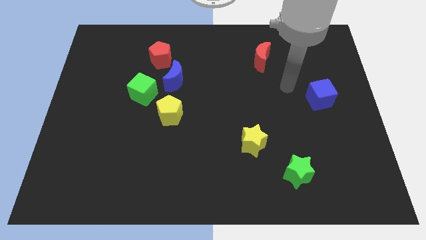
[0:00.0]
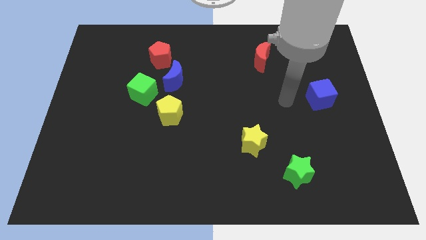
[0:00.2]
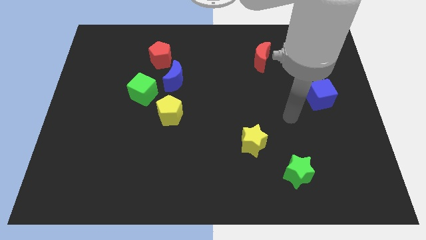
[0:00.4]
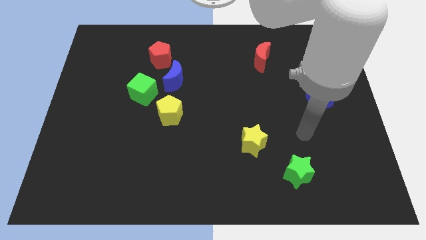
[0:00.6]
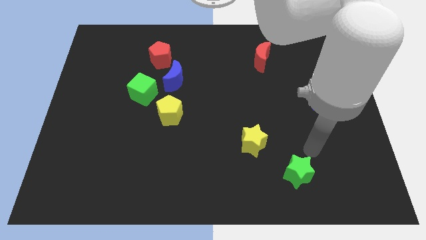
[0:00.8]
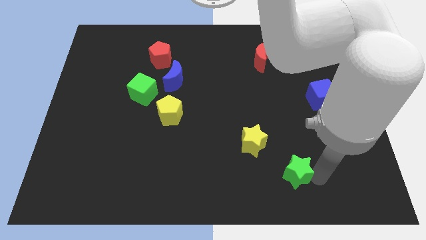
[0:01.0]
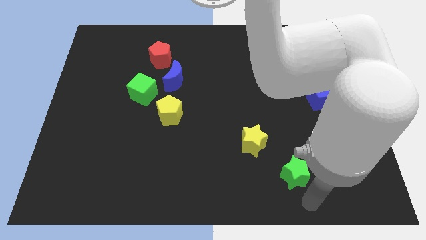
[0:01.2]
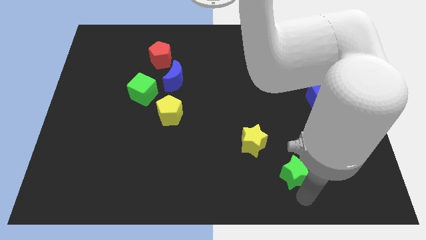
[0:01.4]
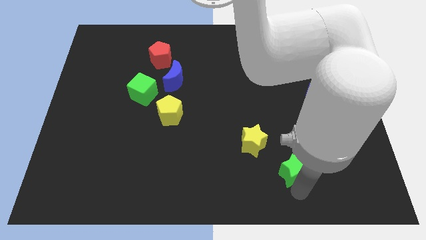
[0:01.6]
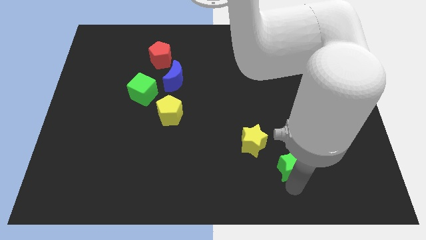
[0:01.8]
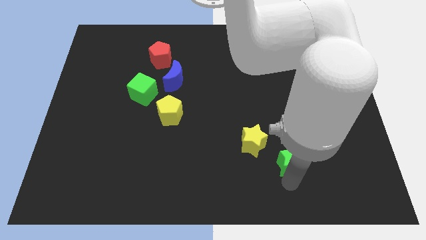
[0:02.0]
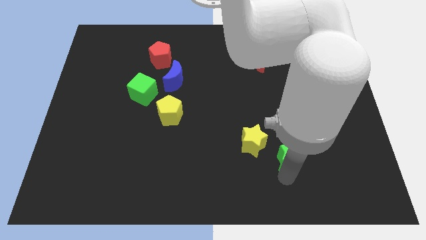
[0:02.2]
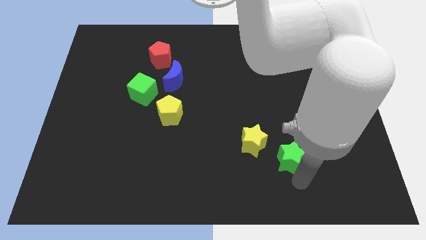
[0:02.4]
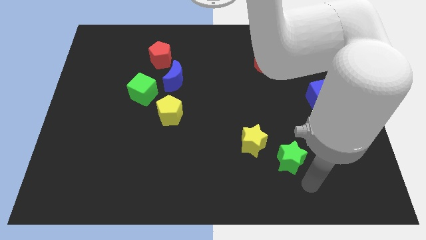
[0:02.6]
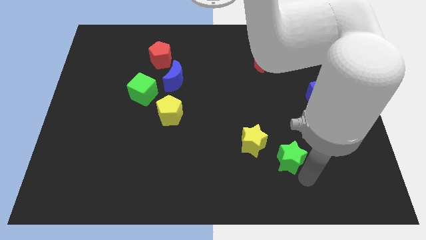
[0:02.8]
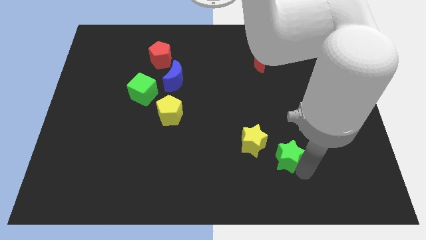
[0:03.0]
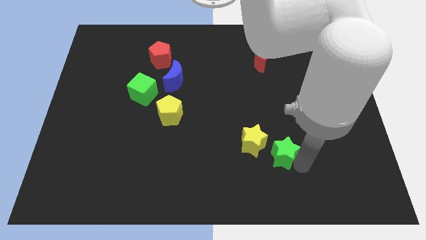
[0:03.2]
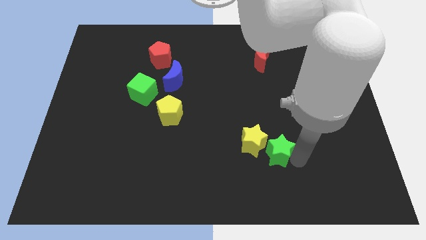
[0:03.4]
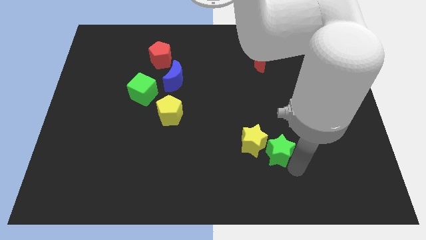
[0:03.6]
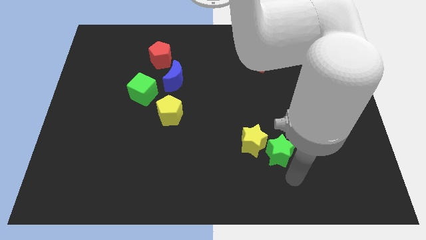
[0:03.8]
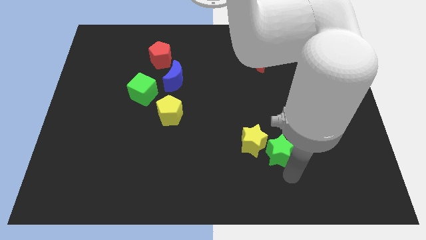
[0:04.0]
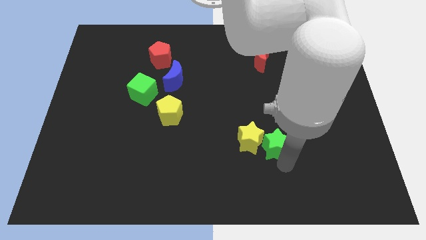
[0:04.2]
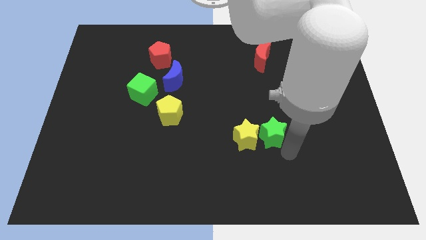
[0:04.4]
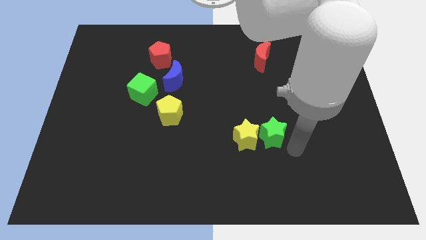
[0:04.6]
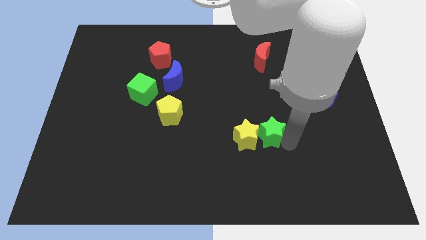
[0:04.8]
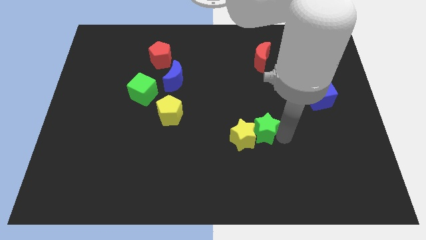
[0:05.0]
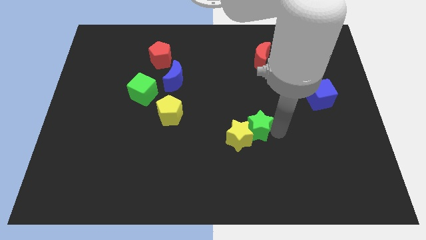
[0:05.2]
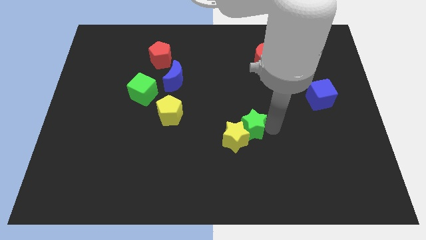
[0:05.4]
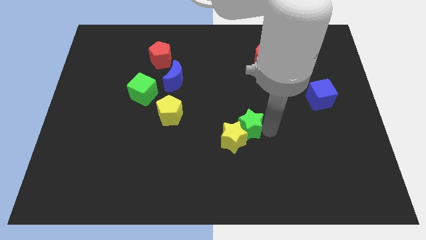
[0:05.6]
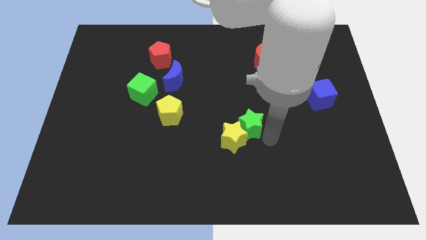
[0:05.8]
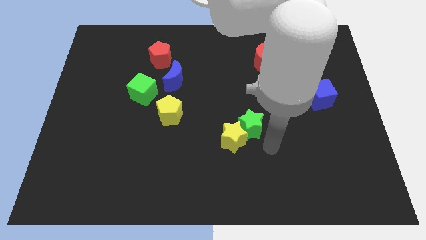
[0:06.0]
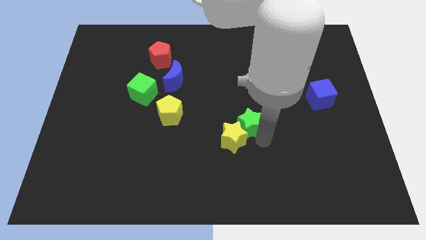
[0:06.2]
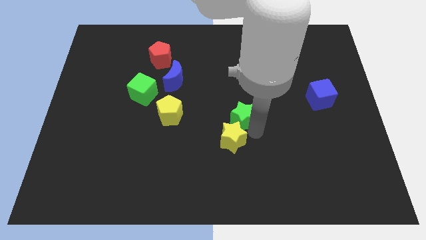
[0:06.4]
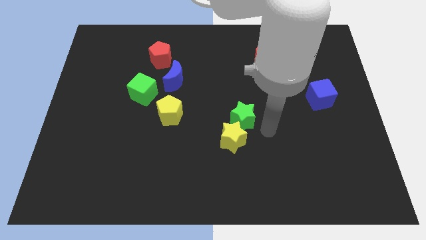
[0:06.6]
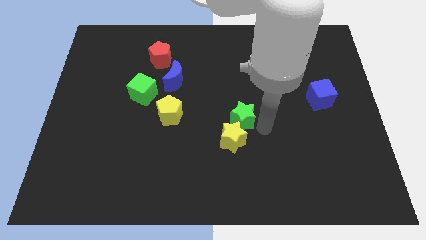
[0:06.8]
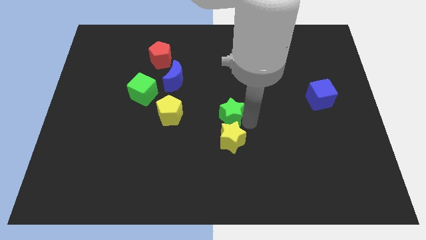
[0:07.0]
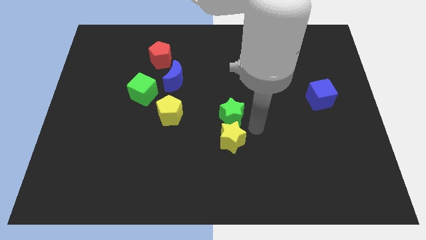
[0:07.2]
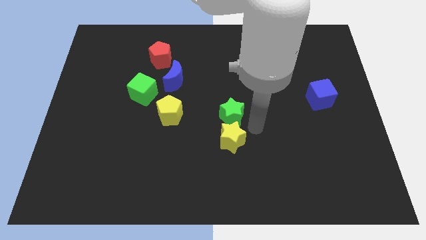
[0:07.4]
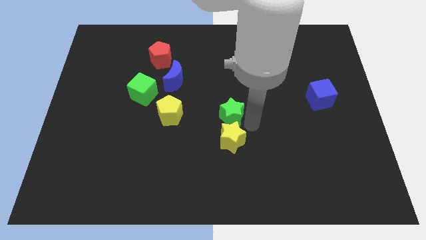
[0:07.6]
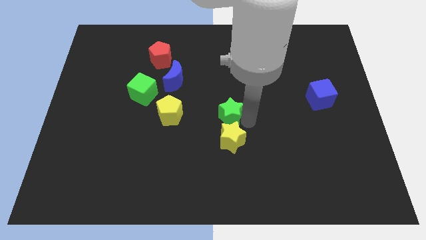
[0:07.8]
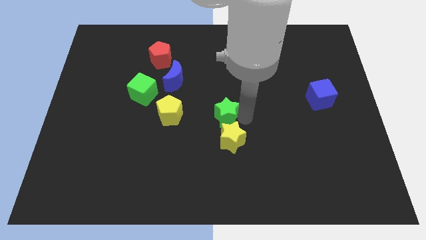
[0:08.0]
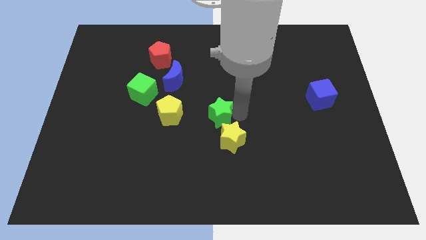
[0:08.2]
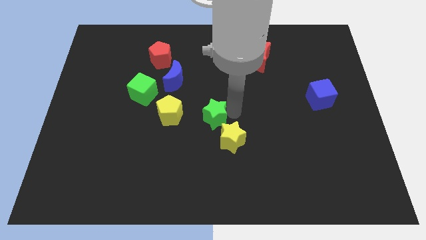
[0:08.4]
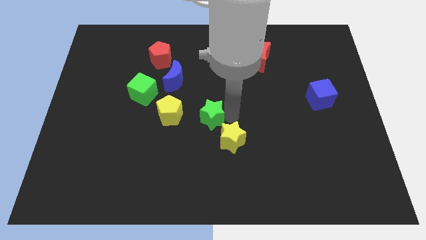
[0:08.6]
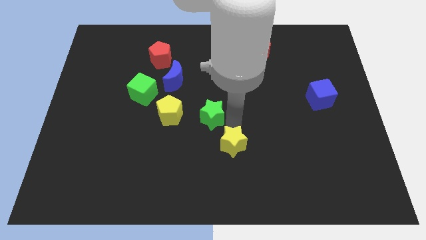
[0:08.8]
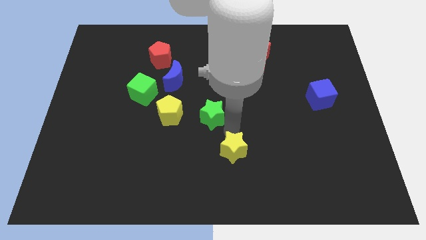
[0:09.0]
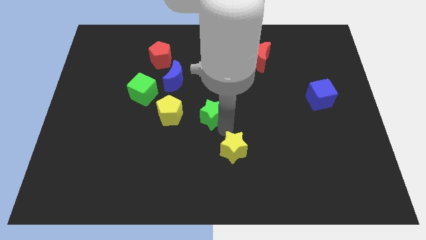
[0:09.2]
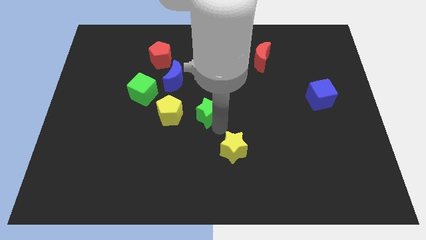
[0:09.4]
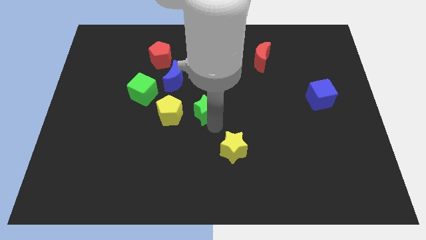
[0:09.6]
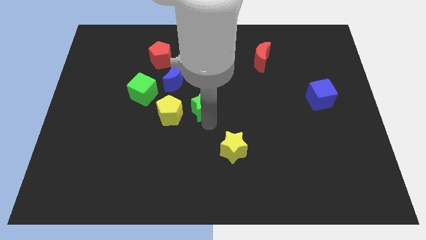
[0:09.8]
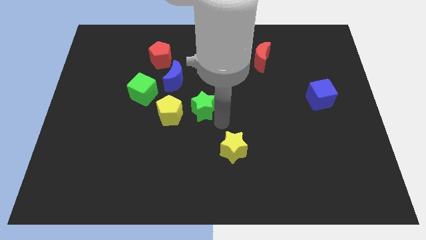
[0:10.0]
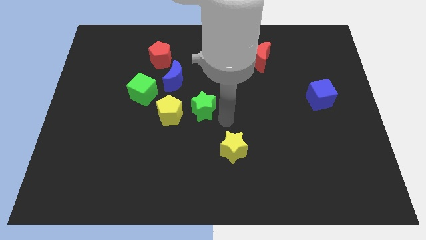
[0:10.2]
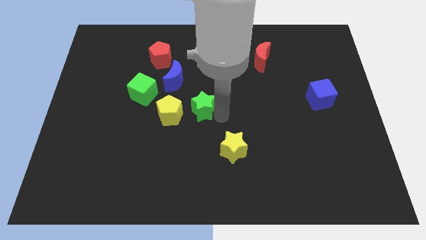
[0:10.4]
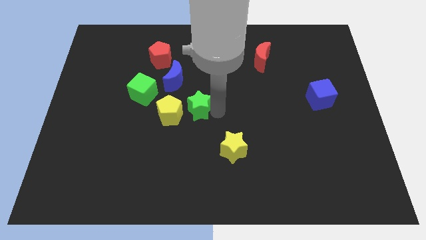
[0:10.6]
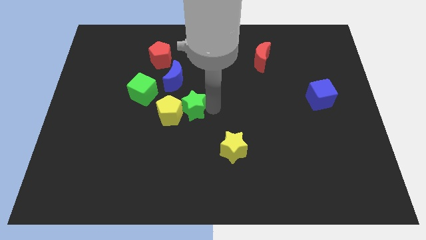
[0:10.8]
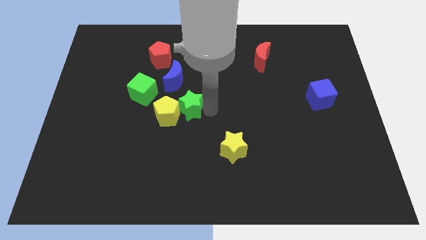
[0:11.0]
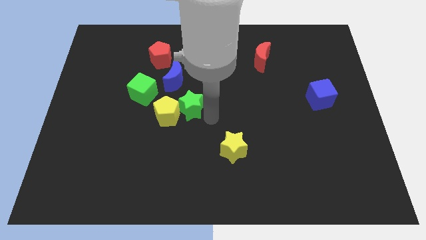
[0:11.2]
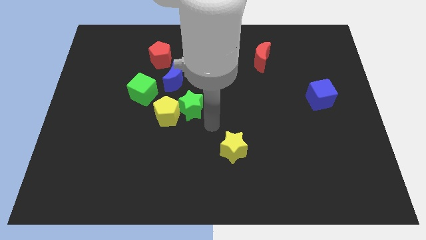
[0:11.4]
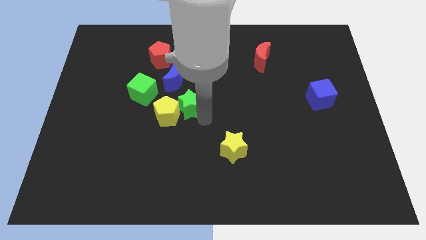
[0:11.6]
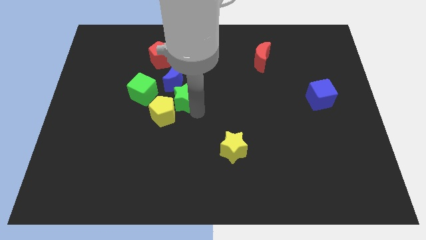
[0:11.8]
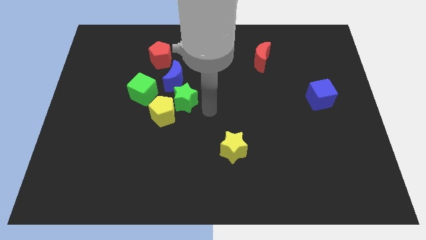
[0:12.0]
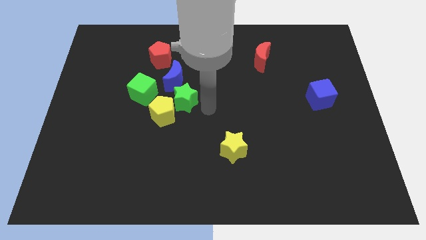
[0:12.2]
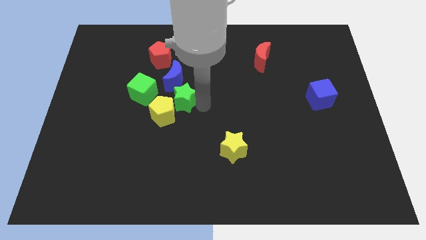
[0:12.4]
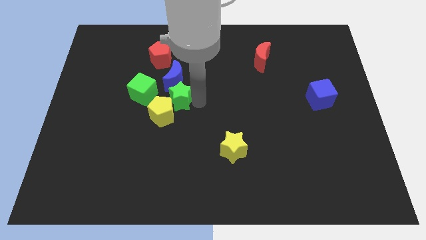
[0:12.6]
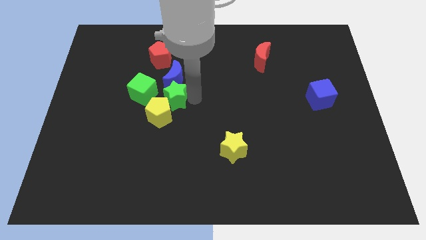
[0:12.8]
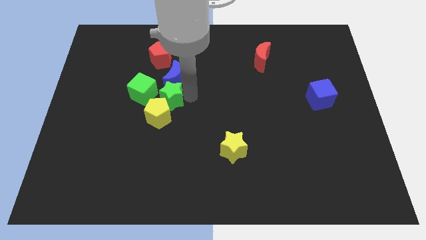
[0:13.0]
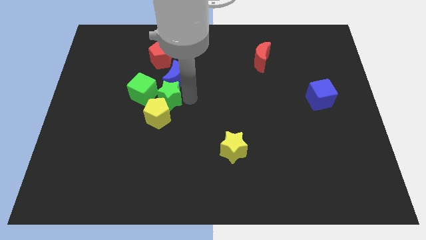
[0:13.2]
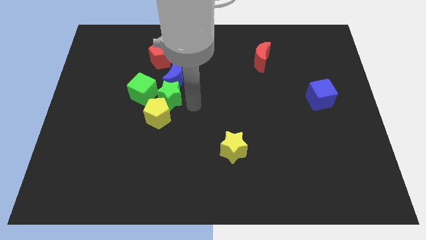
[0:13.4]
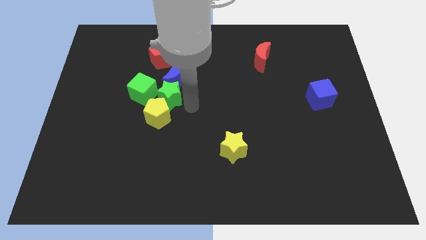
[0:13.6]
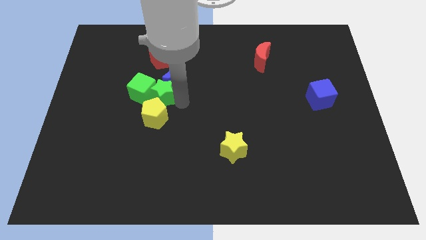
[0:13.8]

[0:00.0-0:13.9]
slide the green star close to the green cube

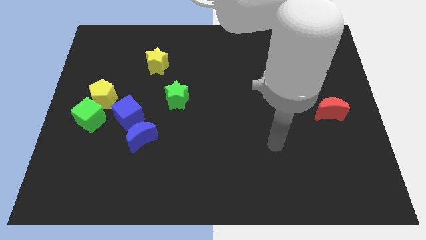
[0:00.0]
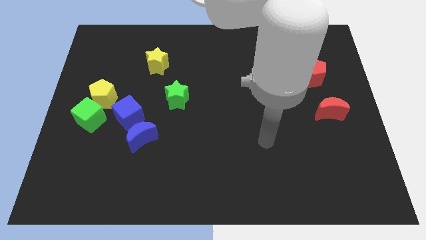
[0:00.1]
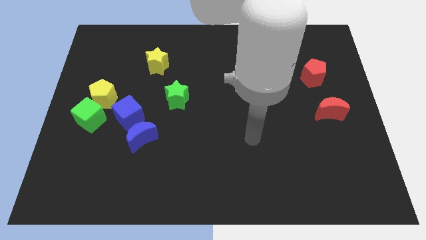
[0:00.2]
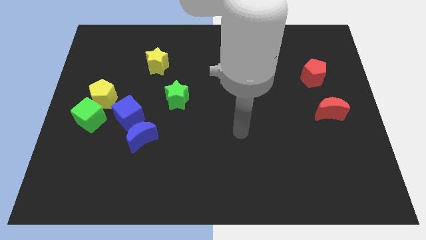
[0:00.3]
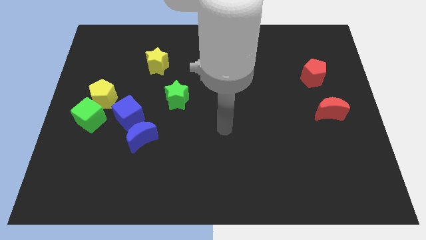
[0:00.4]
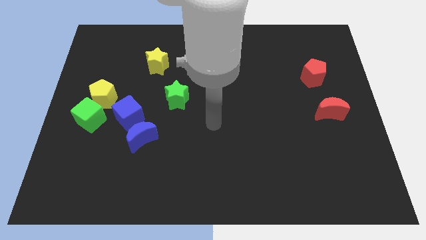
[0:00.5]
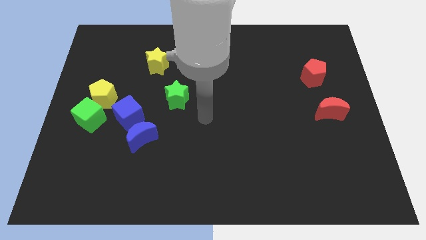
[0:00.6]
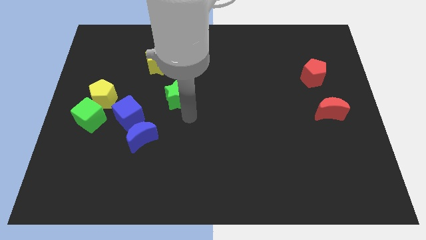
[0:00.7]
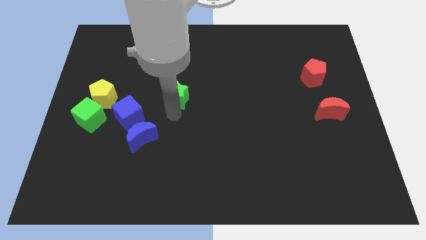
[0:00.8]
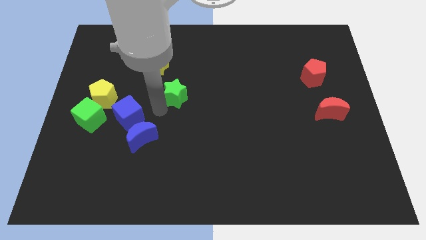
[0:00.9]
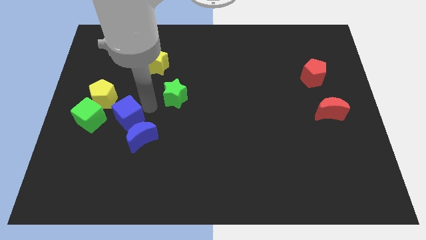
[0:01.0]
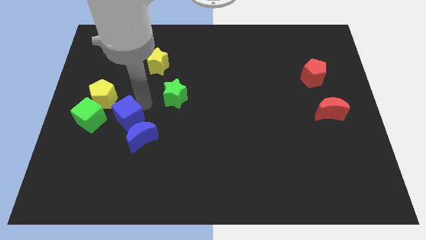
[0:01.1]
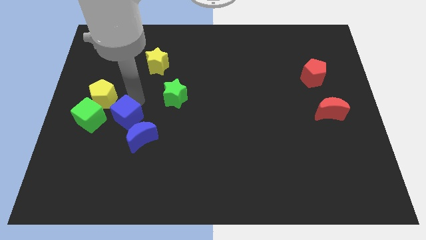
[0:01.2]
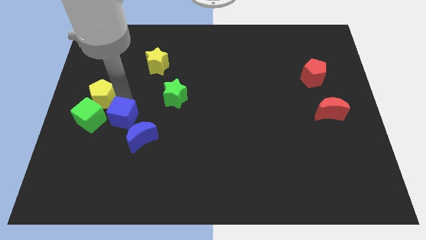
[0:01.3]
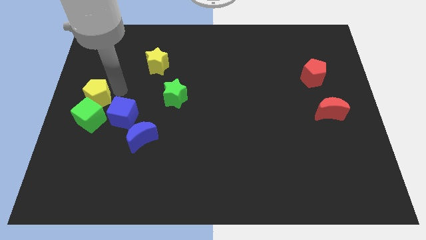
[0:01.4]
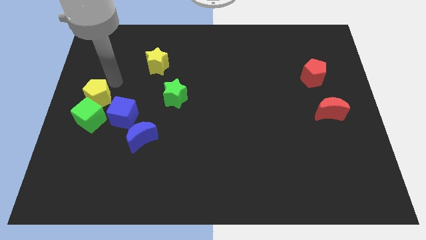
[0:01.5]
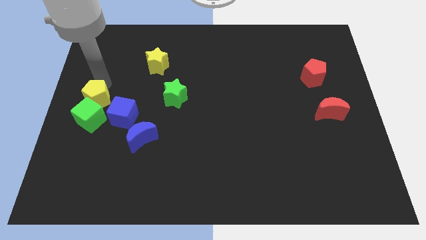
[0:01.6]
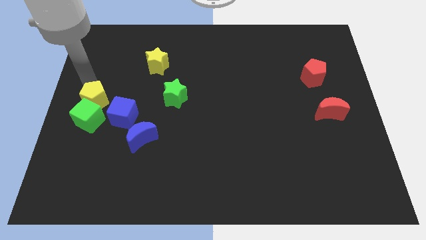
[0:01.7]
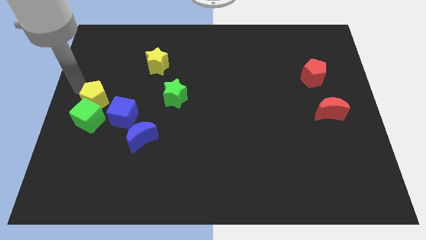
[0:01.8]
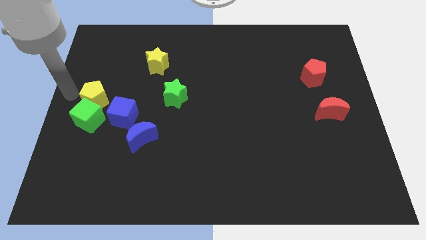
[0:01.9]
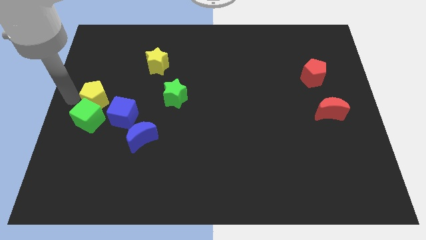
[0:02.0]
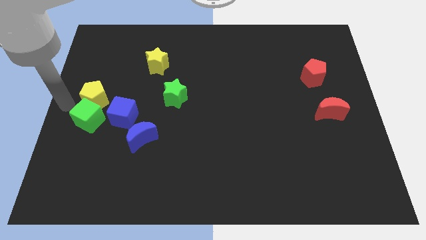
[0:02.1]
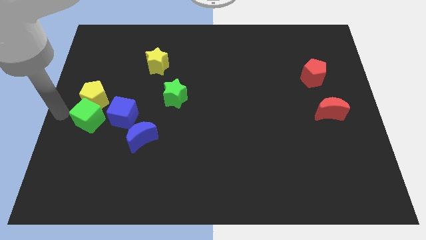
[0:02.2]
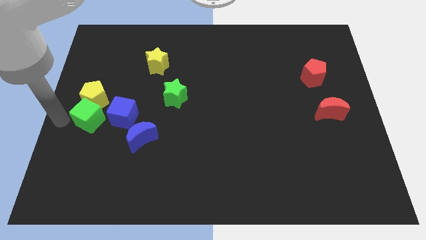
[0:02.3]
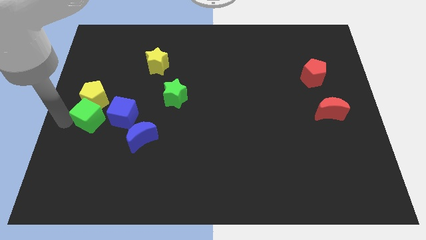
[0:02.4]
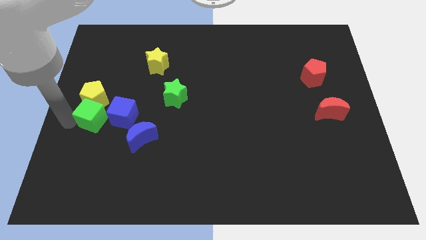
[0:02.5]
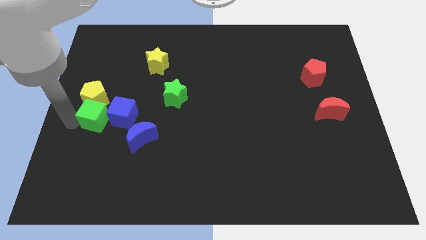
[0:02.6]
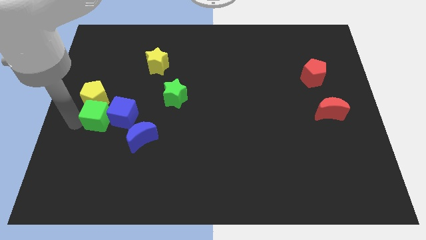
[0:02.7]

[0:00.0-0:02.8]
slide the green cube to the blue cube
